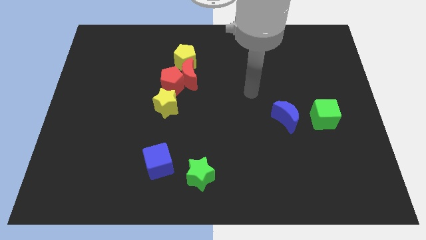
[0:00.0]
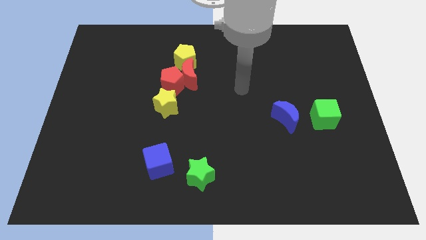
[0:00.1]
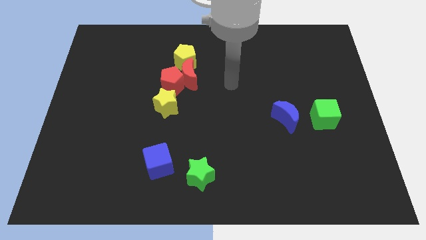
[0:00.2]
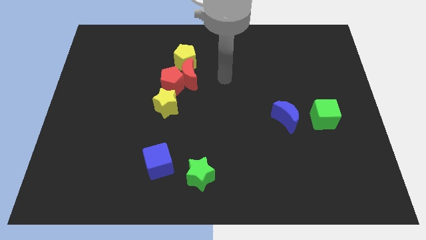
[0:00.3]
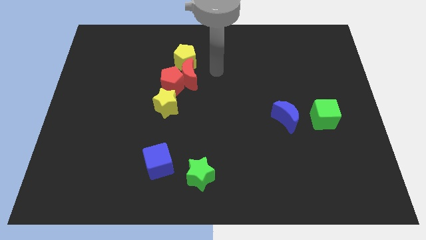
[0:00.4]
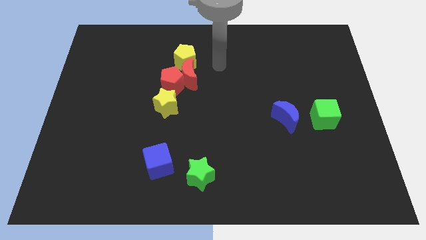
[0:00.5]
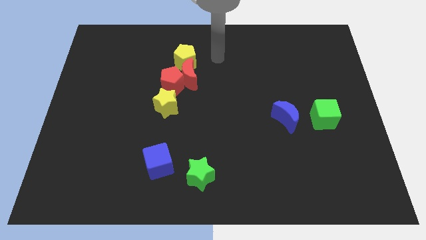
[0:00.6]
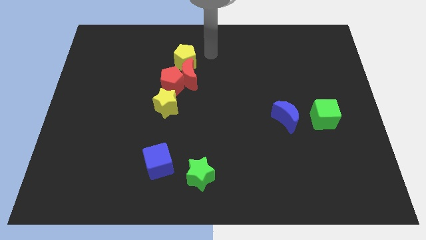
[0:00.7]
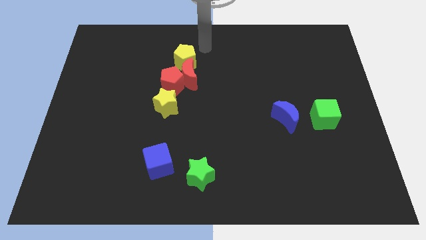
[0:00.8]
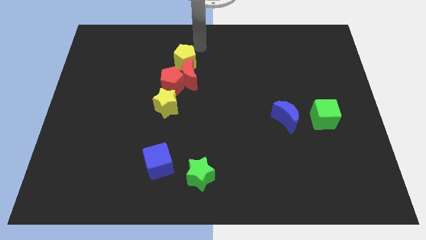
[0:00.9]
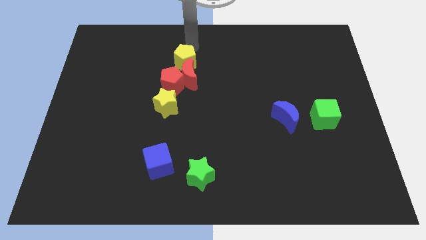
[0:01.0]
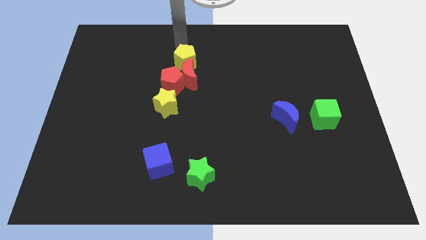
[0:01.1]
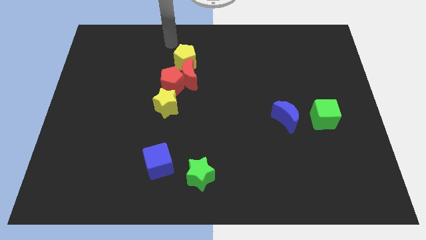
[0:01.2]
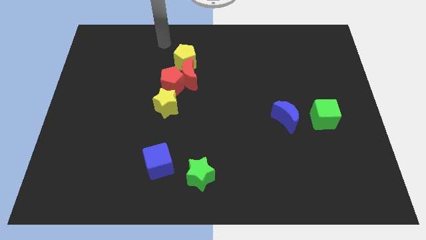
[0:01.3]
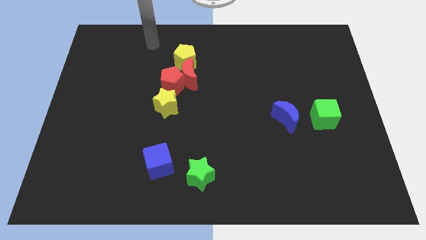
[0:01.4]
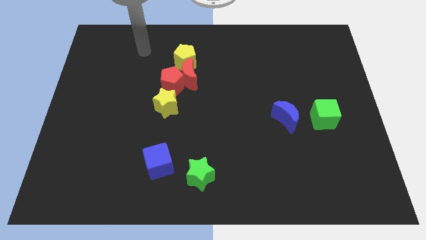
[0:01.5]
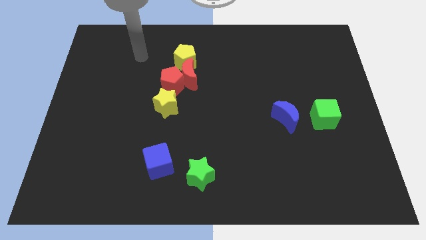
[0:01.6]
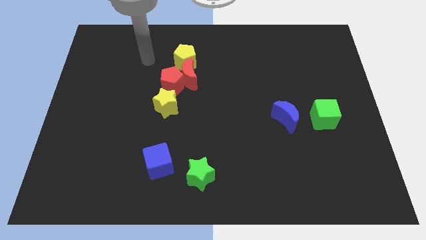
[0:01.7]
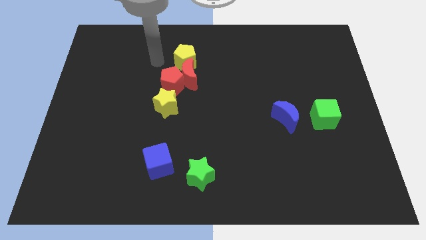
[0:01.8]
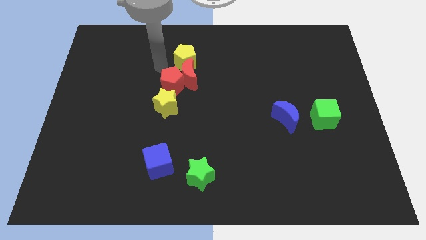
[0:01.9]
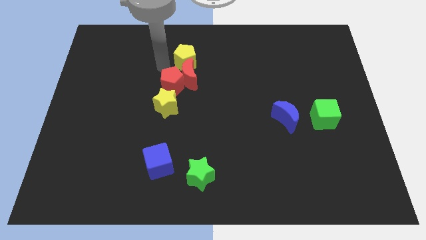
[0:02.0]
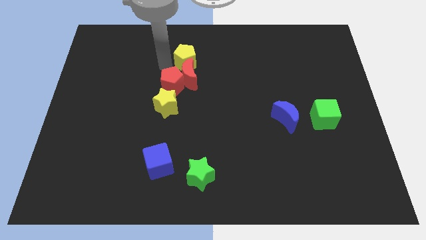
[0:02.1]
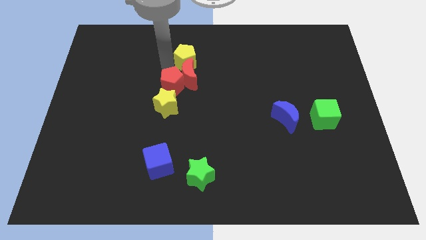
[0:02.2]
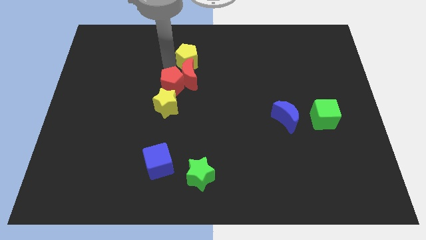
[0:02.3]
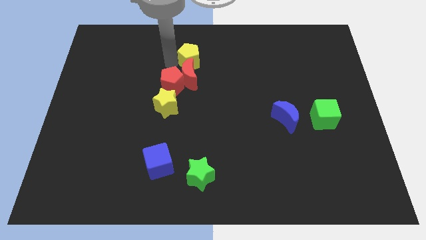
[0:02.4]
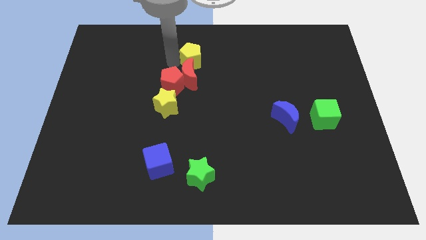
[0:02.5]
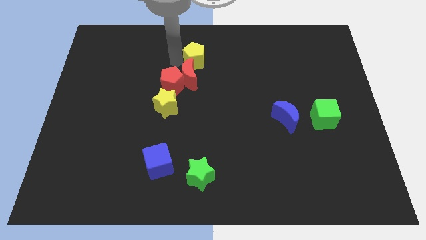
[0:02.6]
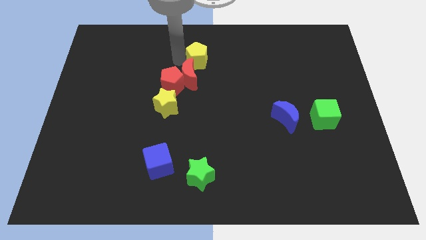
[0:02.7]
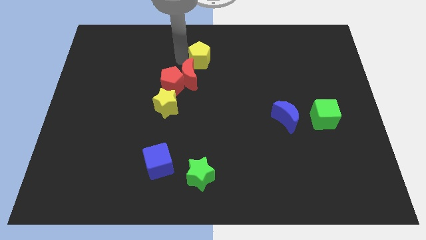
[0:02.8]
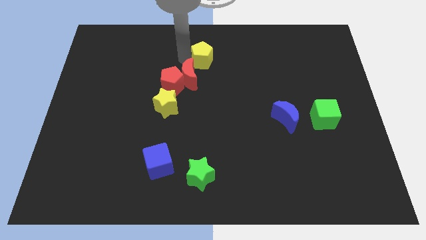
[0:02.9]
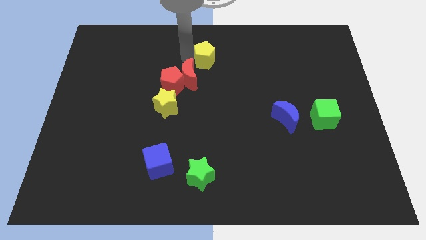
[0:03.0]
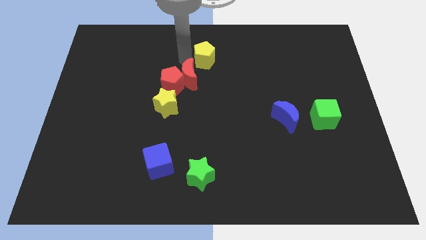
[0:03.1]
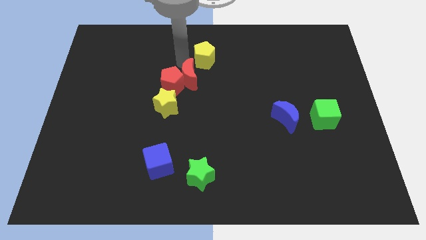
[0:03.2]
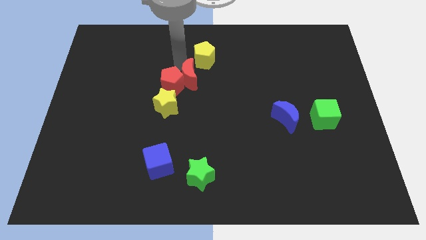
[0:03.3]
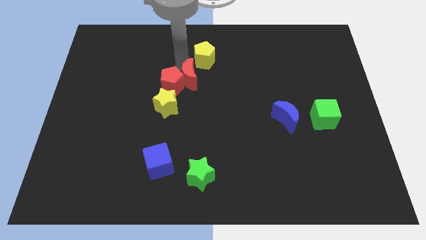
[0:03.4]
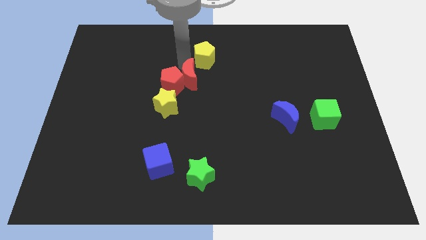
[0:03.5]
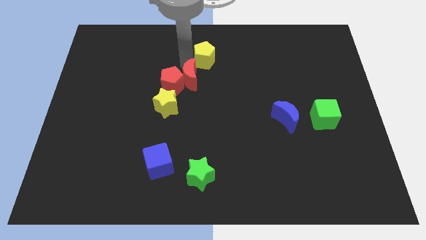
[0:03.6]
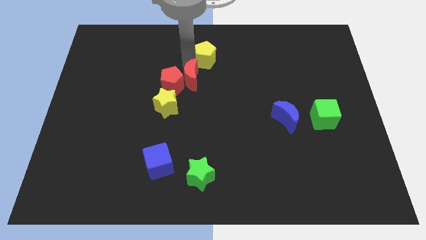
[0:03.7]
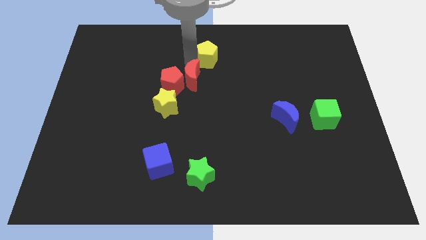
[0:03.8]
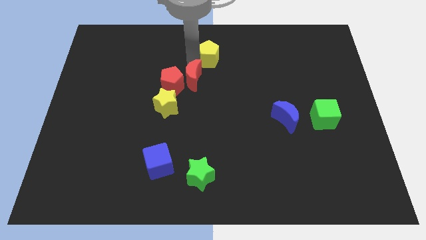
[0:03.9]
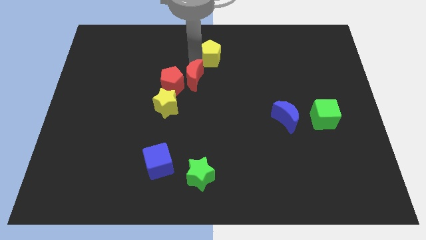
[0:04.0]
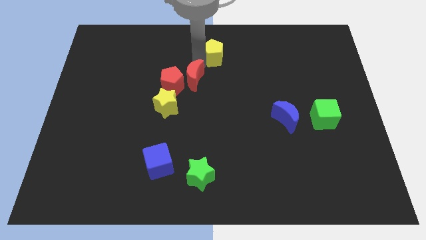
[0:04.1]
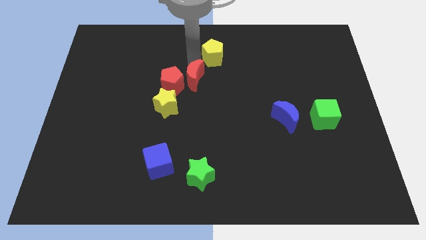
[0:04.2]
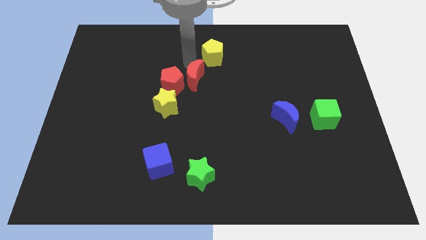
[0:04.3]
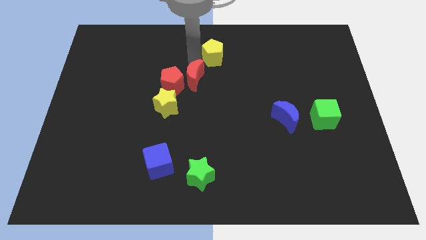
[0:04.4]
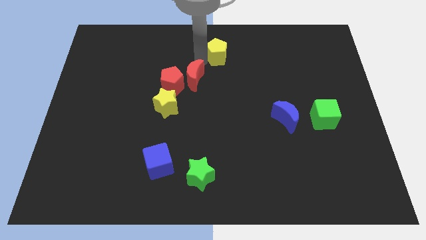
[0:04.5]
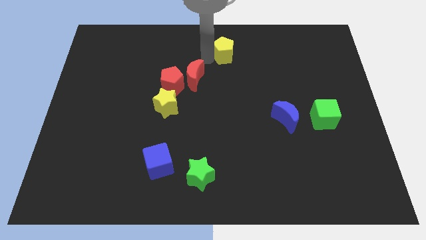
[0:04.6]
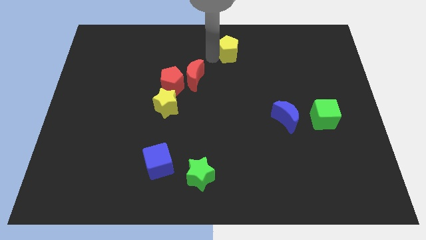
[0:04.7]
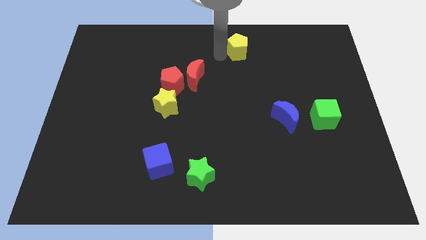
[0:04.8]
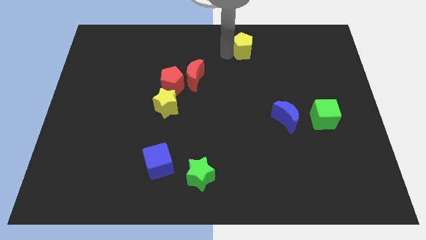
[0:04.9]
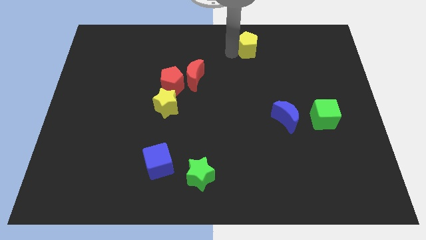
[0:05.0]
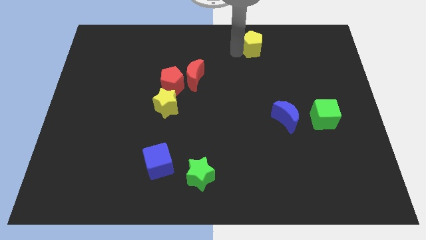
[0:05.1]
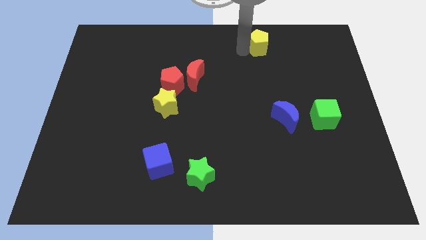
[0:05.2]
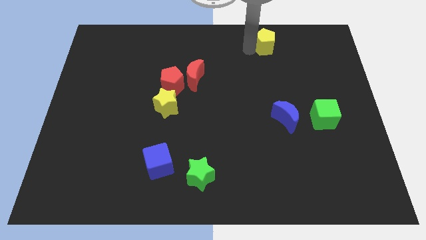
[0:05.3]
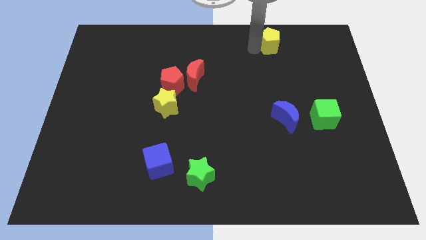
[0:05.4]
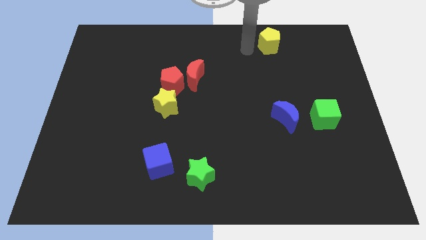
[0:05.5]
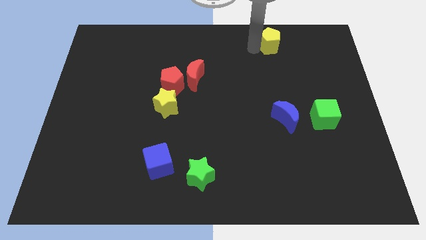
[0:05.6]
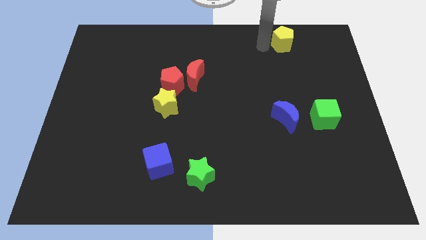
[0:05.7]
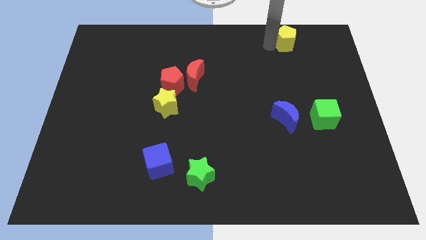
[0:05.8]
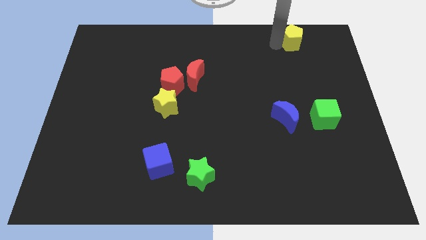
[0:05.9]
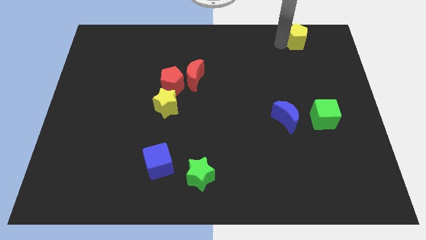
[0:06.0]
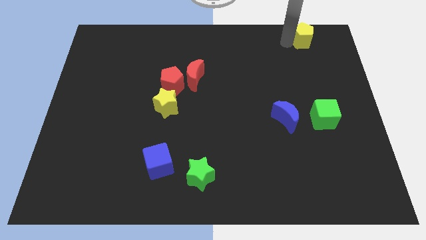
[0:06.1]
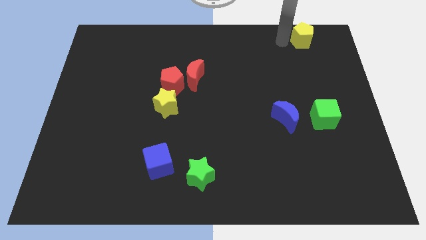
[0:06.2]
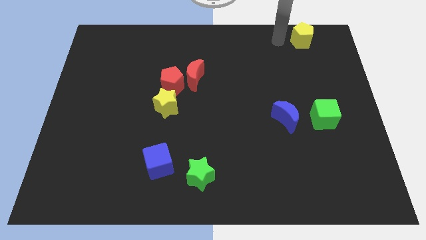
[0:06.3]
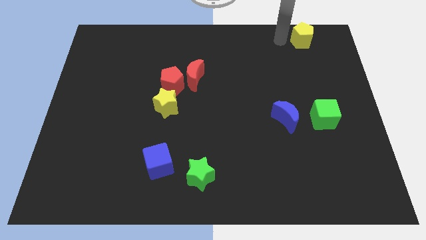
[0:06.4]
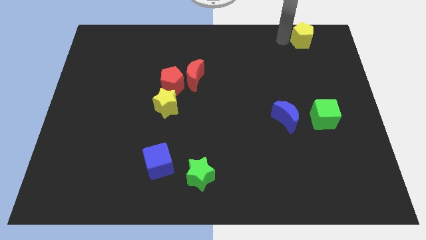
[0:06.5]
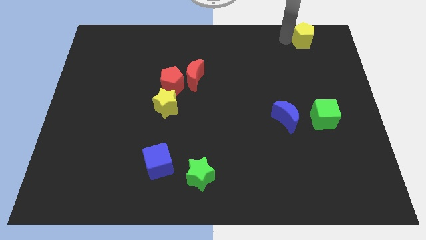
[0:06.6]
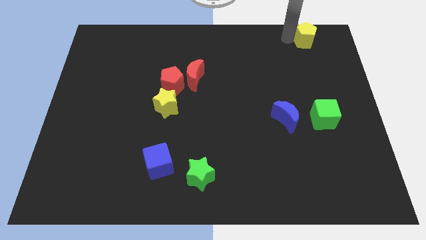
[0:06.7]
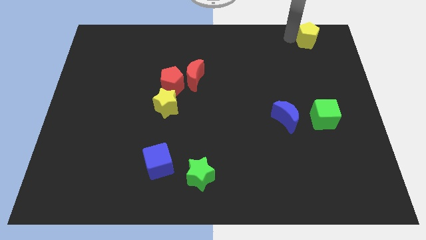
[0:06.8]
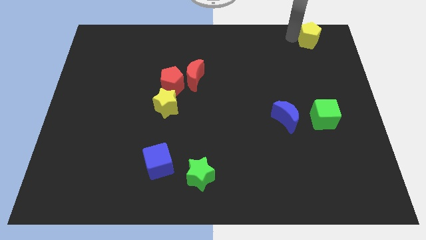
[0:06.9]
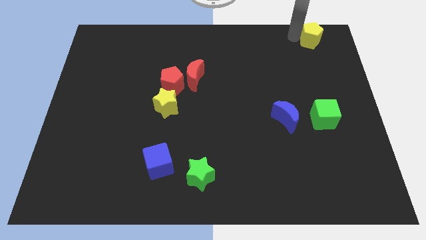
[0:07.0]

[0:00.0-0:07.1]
slide the yellow pentagon to the top right corner
